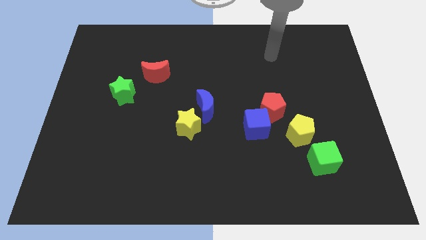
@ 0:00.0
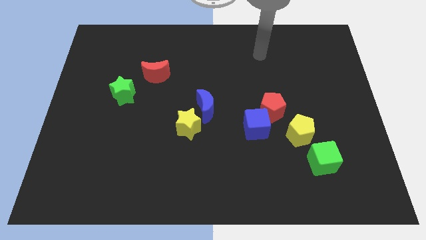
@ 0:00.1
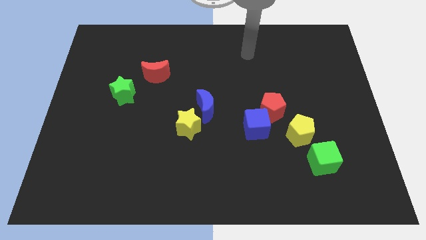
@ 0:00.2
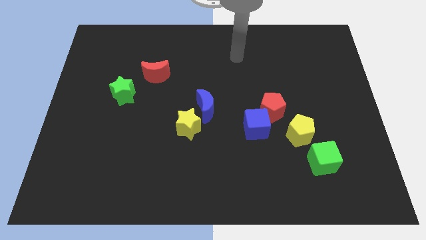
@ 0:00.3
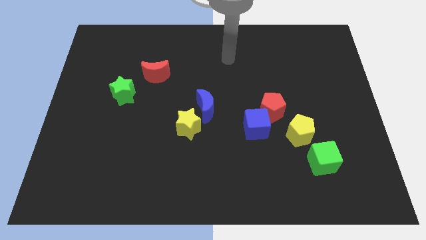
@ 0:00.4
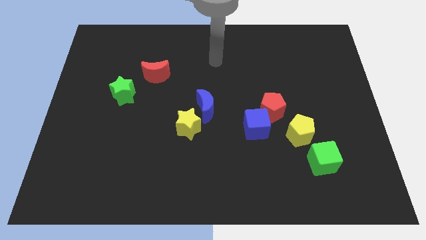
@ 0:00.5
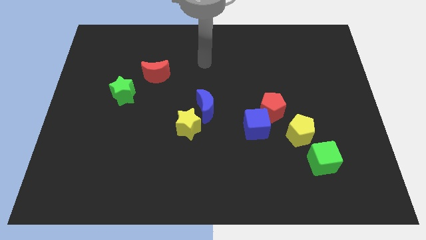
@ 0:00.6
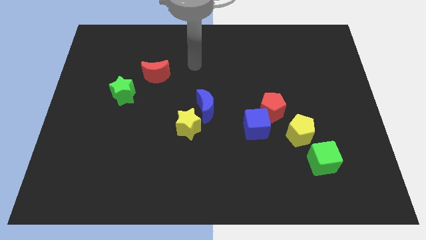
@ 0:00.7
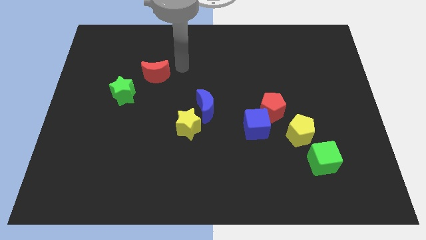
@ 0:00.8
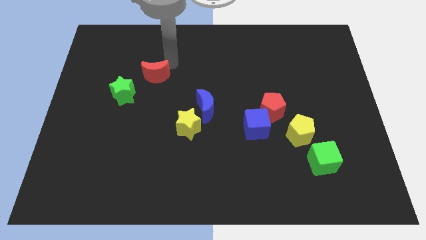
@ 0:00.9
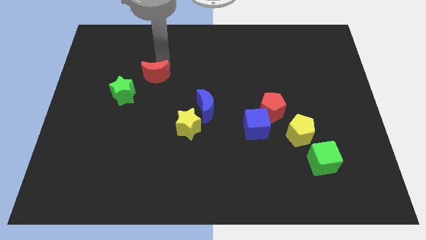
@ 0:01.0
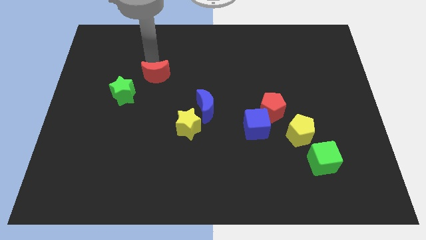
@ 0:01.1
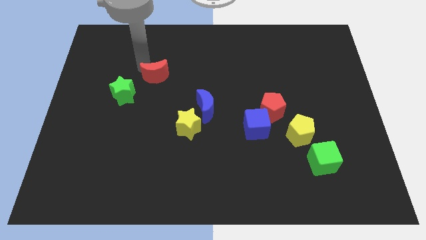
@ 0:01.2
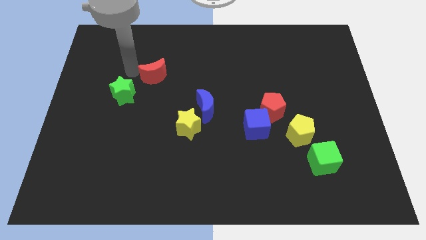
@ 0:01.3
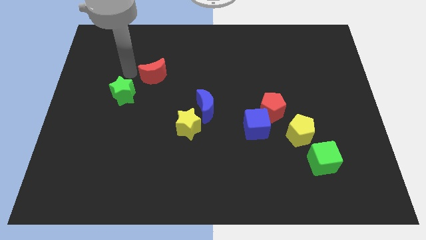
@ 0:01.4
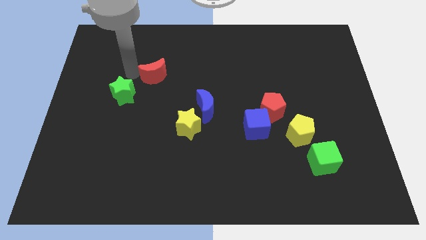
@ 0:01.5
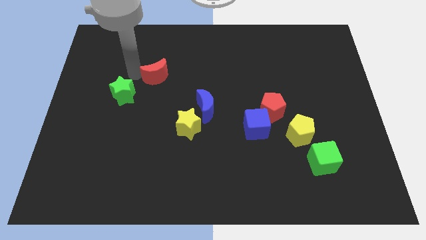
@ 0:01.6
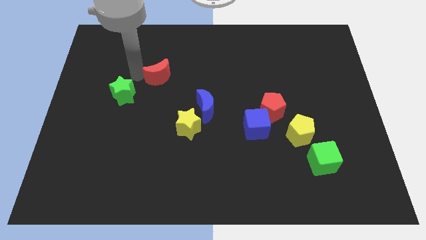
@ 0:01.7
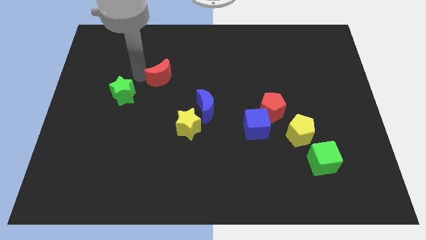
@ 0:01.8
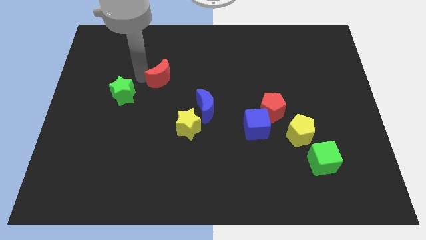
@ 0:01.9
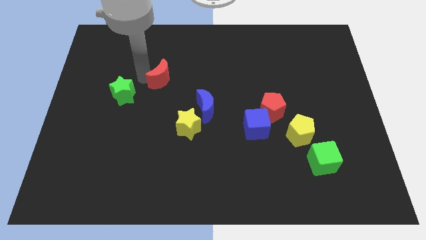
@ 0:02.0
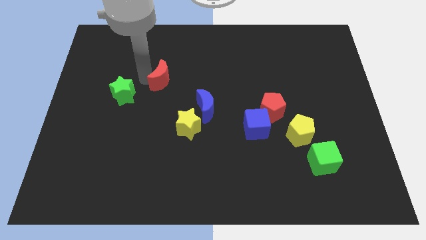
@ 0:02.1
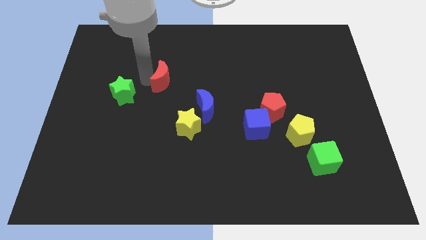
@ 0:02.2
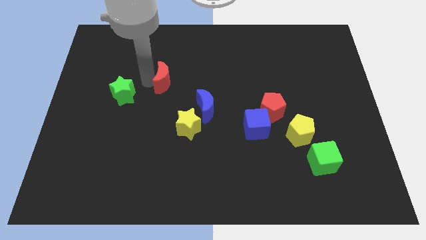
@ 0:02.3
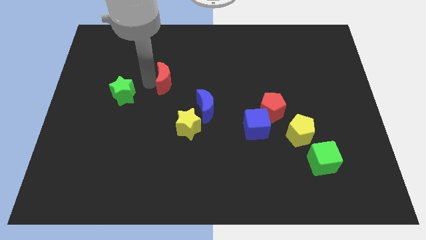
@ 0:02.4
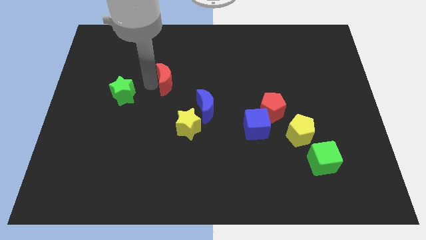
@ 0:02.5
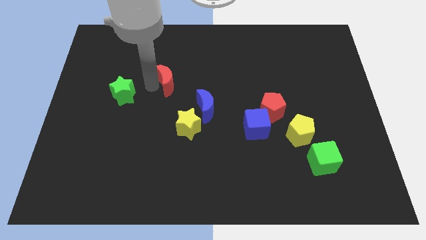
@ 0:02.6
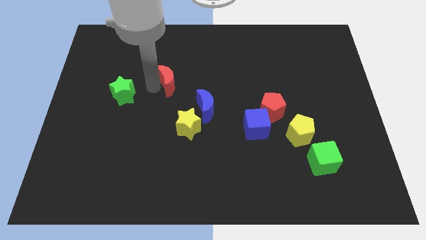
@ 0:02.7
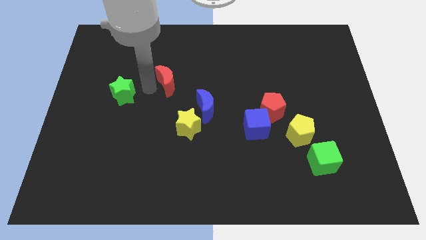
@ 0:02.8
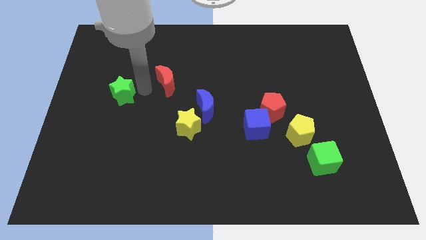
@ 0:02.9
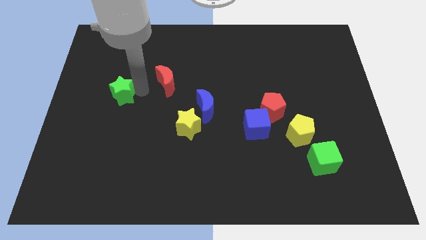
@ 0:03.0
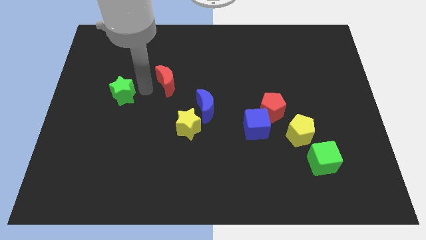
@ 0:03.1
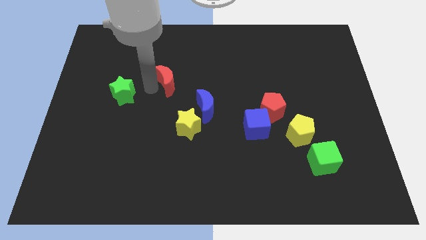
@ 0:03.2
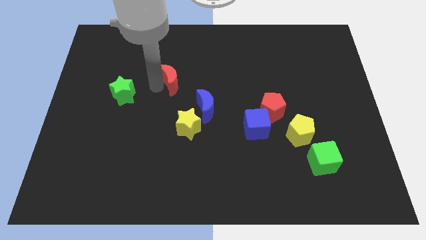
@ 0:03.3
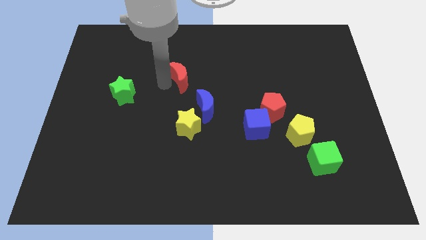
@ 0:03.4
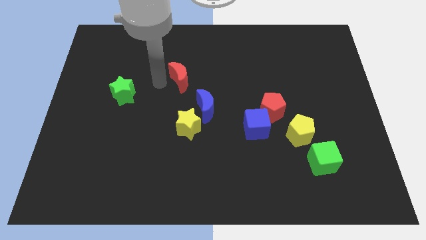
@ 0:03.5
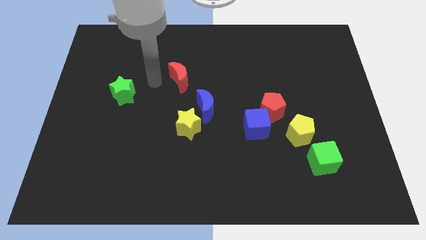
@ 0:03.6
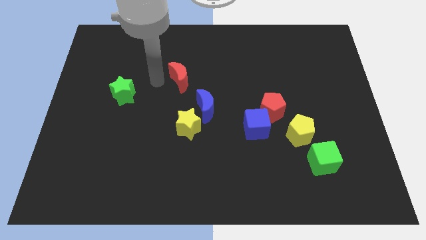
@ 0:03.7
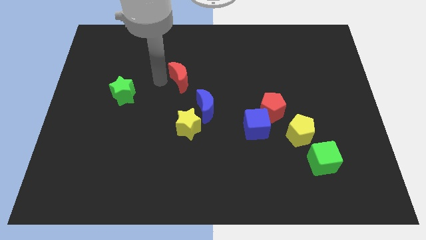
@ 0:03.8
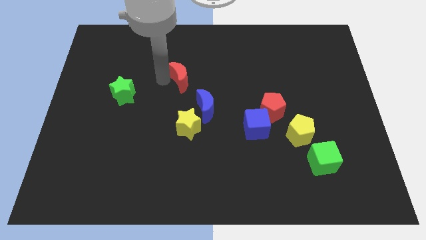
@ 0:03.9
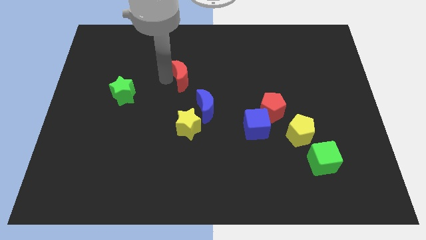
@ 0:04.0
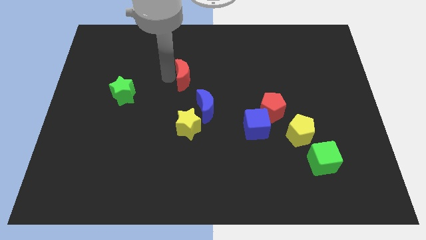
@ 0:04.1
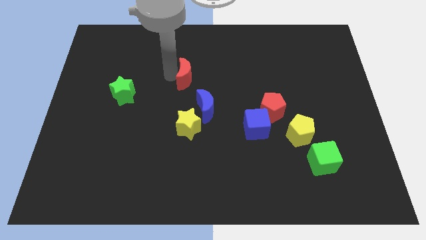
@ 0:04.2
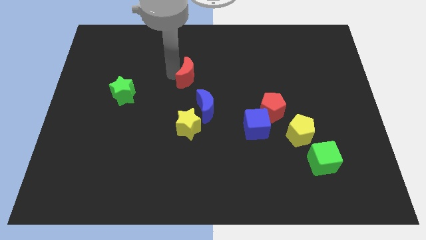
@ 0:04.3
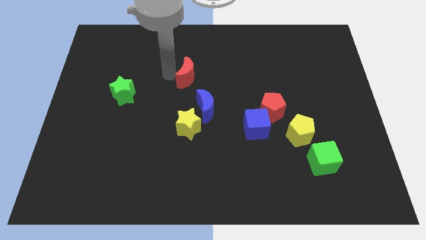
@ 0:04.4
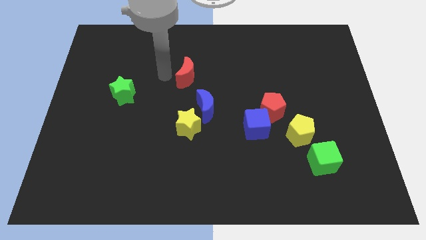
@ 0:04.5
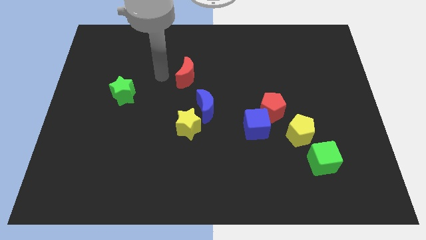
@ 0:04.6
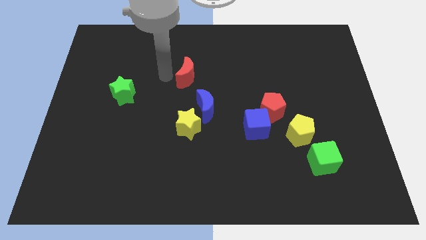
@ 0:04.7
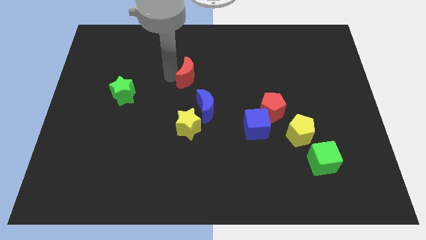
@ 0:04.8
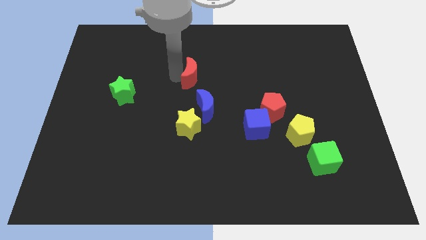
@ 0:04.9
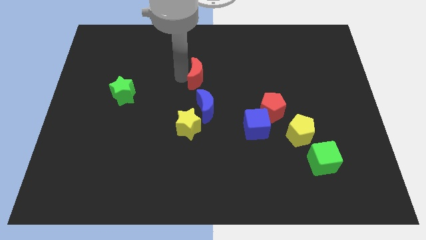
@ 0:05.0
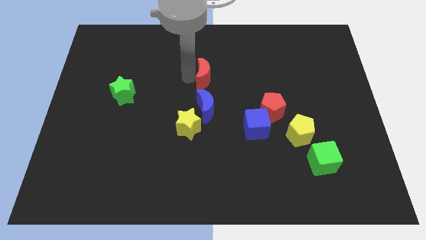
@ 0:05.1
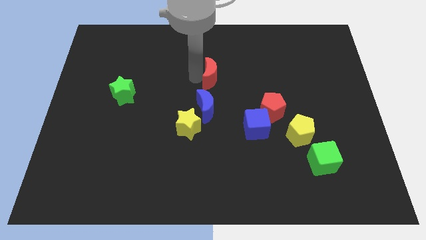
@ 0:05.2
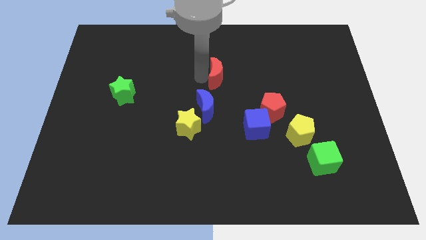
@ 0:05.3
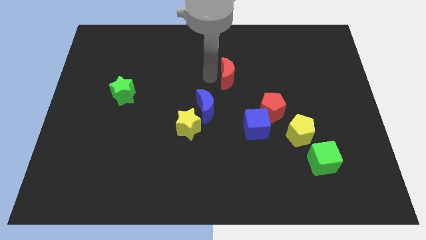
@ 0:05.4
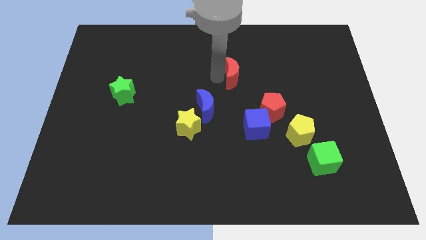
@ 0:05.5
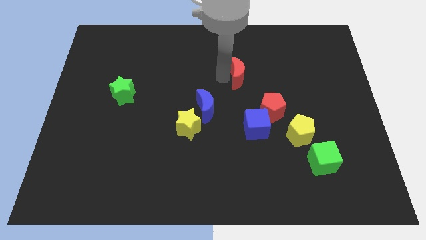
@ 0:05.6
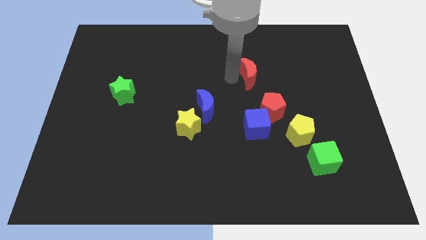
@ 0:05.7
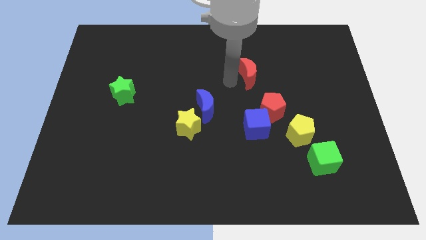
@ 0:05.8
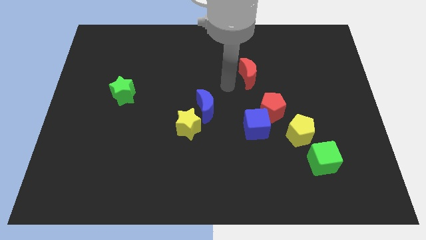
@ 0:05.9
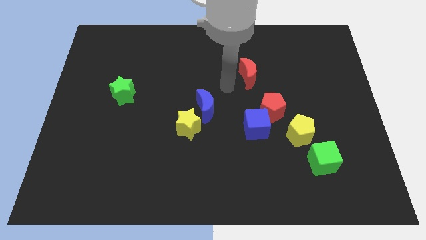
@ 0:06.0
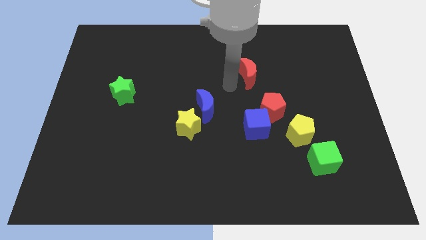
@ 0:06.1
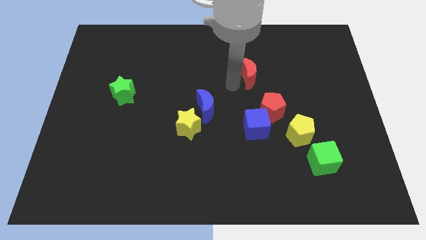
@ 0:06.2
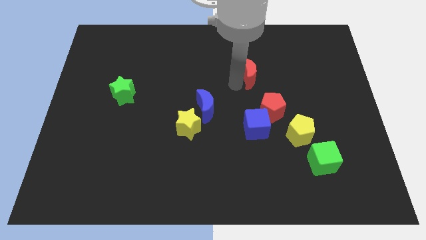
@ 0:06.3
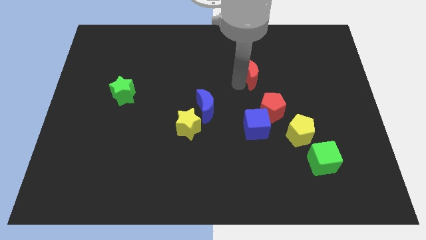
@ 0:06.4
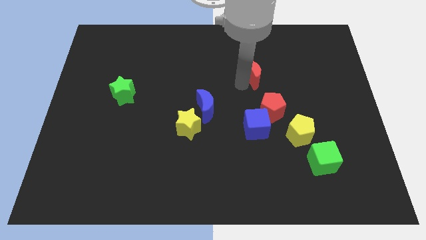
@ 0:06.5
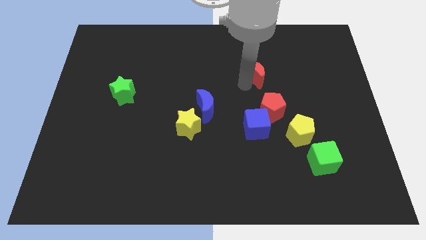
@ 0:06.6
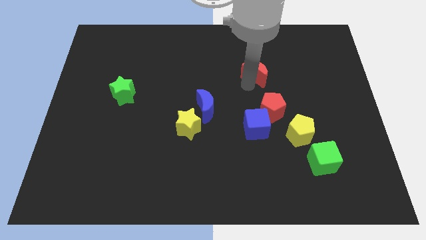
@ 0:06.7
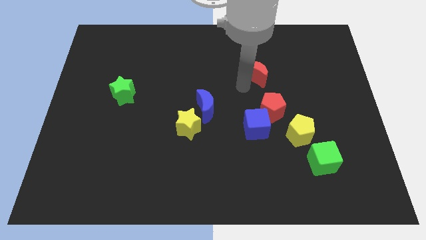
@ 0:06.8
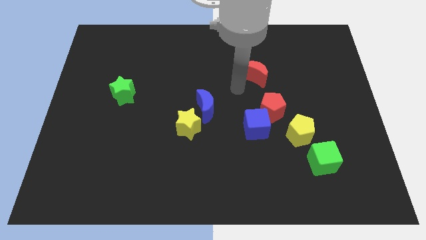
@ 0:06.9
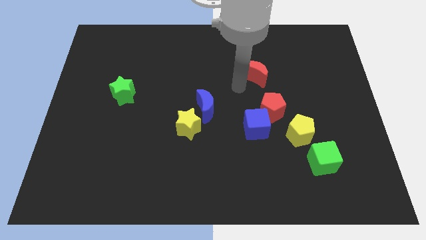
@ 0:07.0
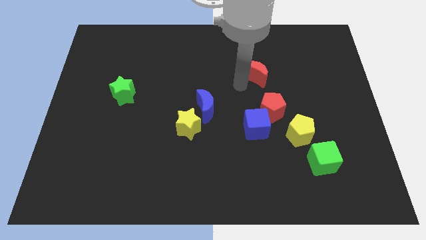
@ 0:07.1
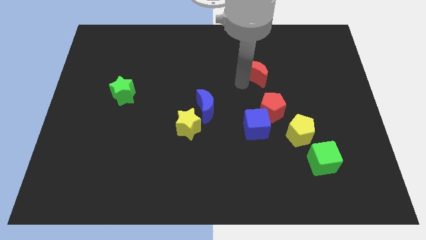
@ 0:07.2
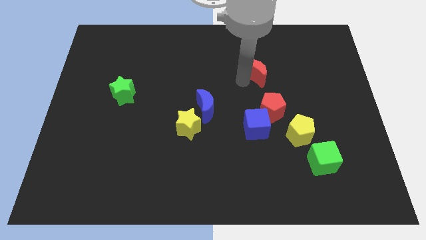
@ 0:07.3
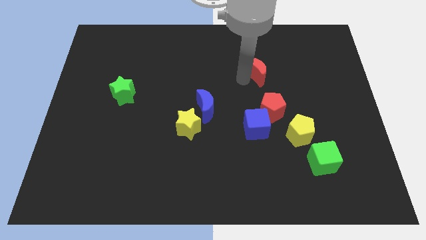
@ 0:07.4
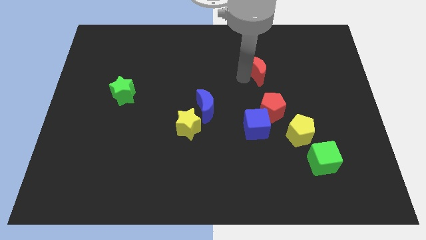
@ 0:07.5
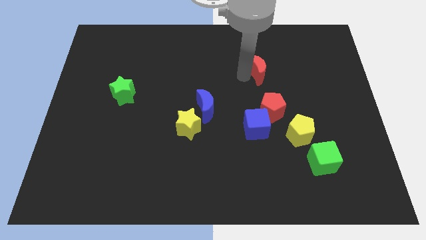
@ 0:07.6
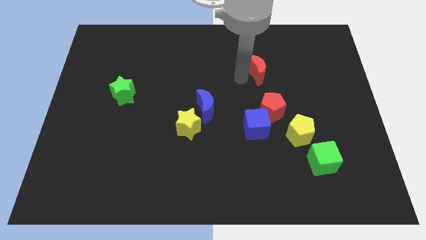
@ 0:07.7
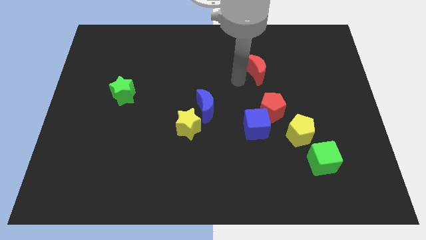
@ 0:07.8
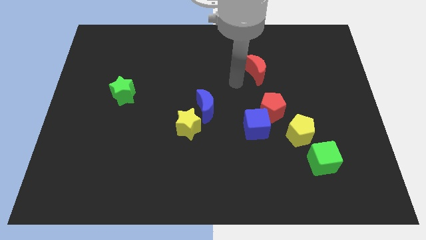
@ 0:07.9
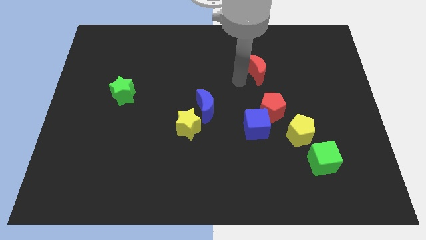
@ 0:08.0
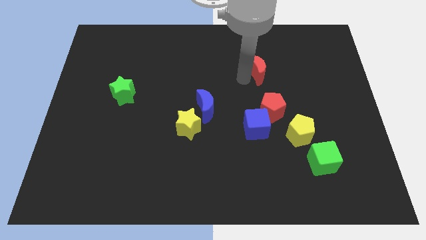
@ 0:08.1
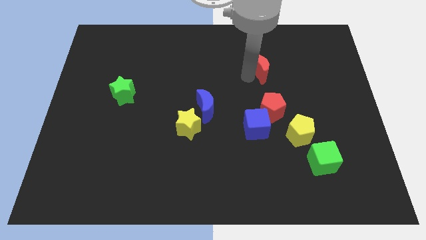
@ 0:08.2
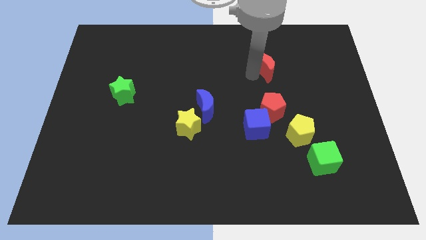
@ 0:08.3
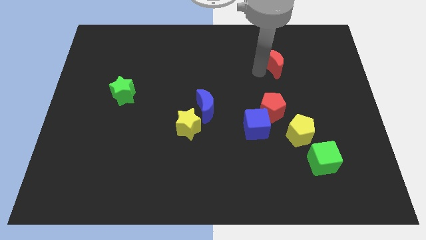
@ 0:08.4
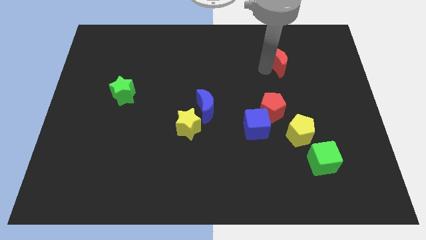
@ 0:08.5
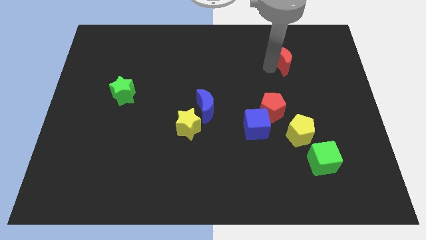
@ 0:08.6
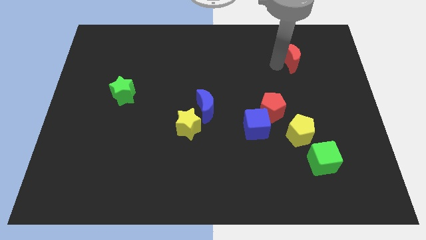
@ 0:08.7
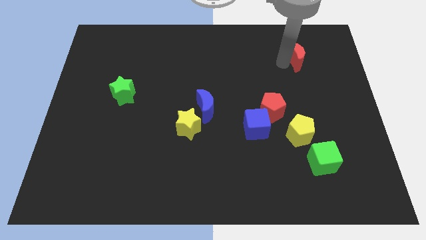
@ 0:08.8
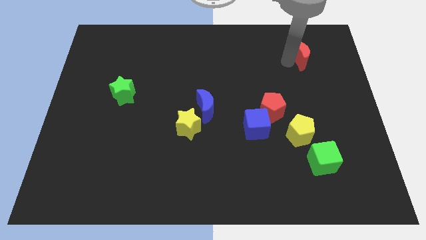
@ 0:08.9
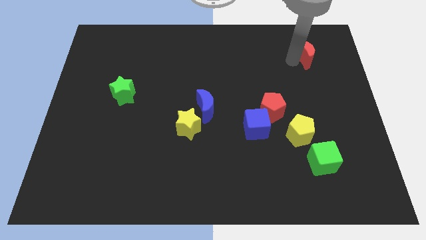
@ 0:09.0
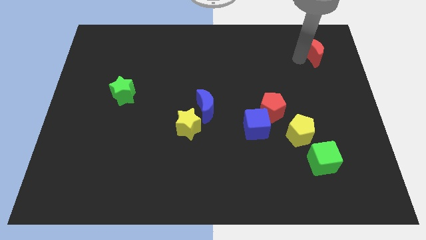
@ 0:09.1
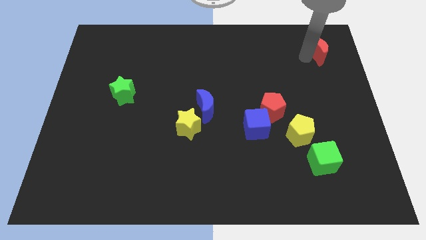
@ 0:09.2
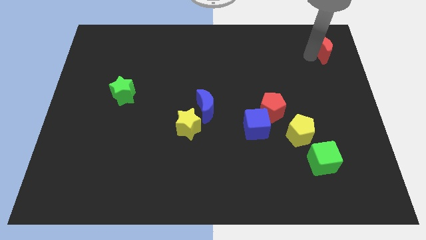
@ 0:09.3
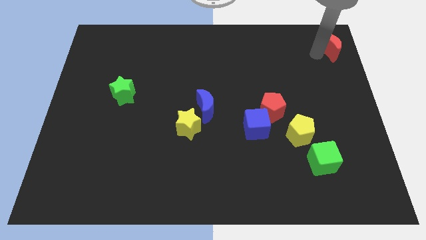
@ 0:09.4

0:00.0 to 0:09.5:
slide the red moon to the upper right corner
